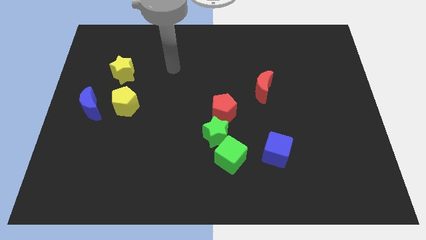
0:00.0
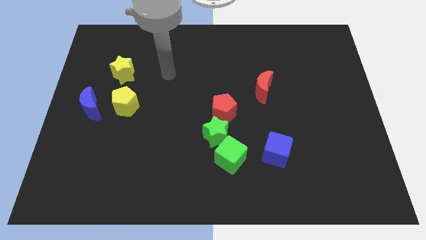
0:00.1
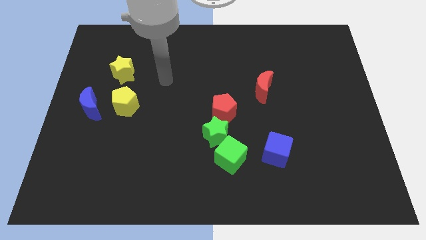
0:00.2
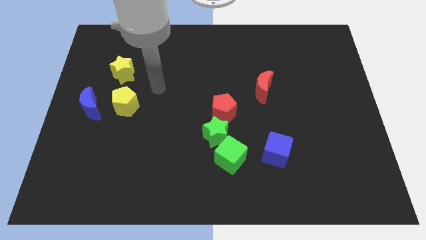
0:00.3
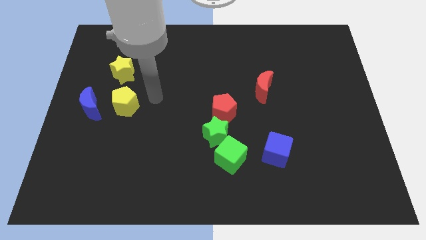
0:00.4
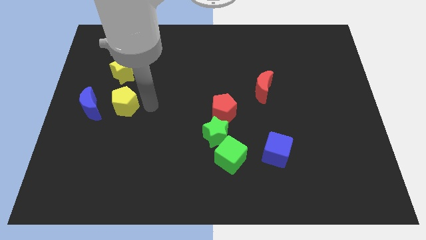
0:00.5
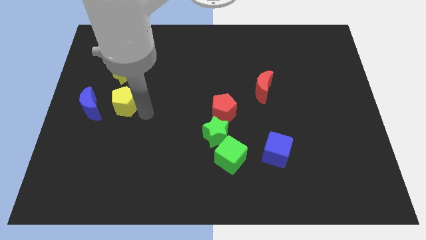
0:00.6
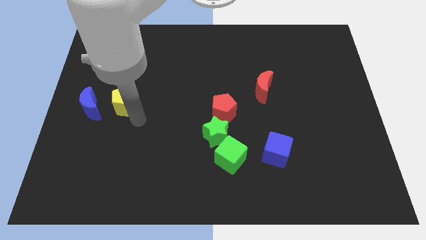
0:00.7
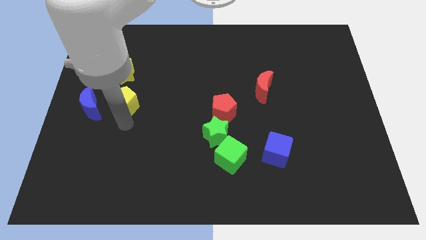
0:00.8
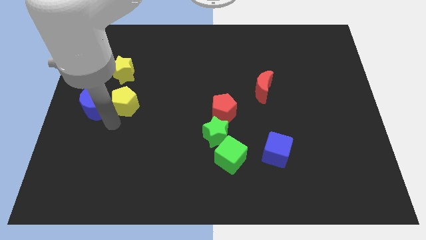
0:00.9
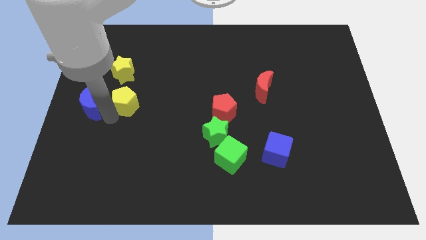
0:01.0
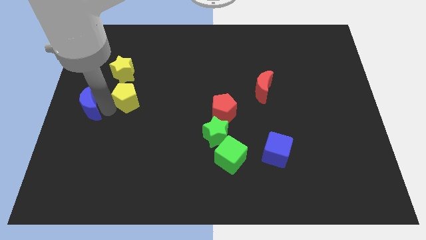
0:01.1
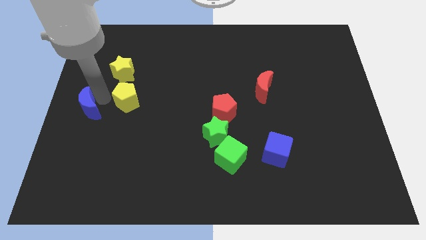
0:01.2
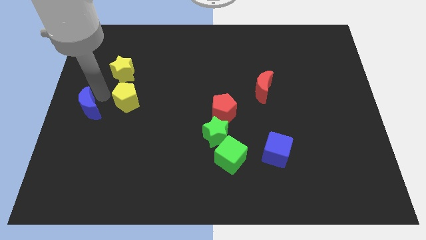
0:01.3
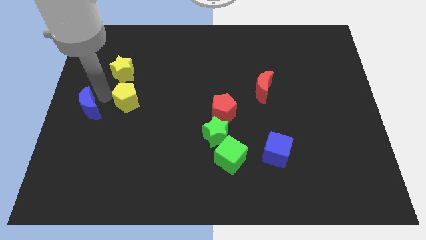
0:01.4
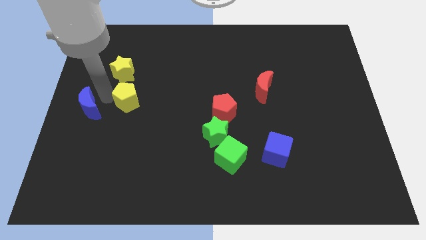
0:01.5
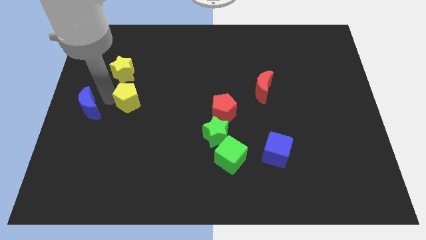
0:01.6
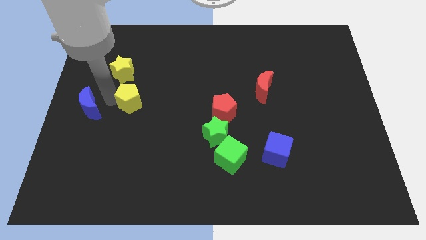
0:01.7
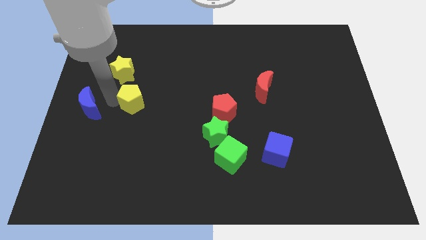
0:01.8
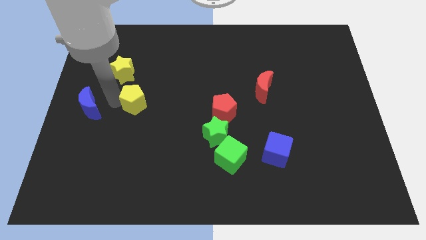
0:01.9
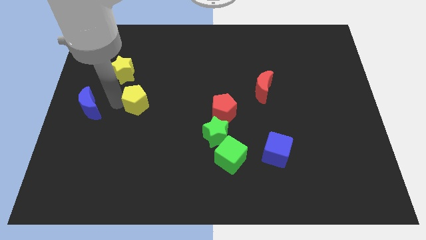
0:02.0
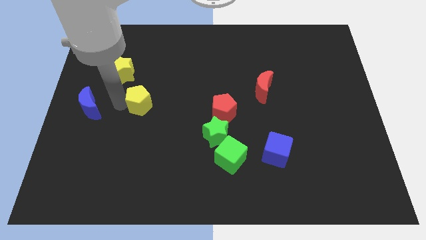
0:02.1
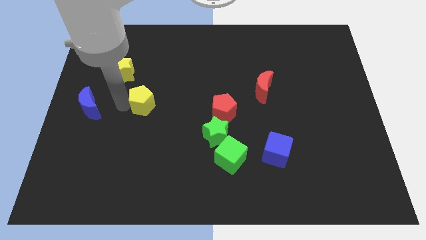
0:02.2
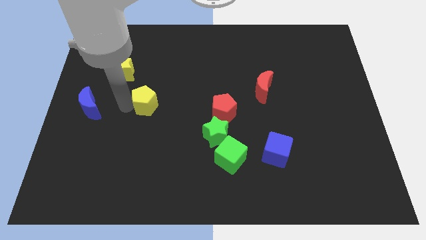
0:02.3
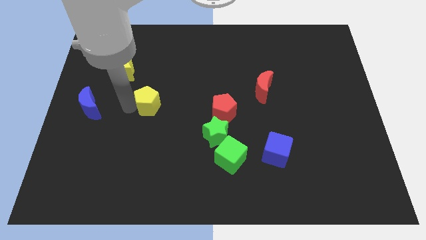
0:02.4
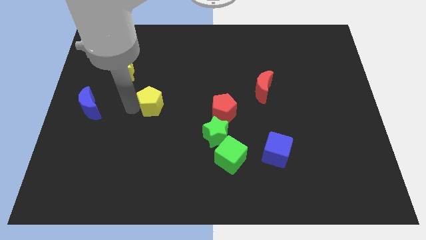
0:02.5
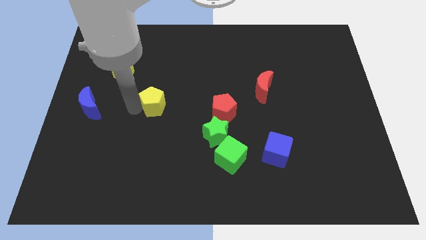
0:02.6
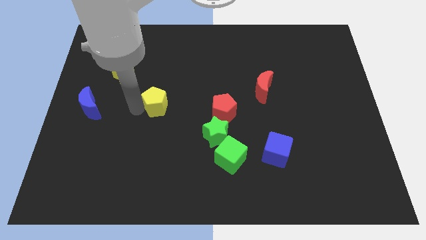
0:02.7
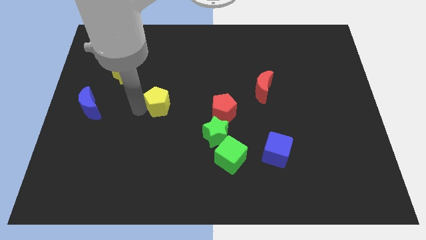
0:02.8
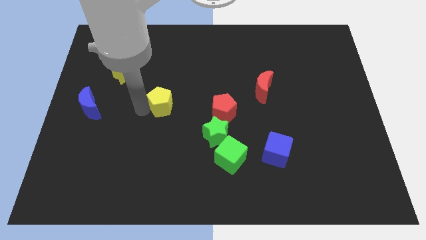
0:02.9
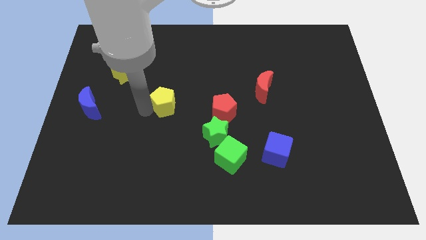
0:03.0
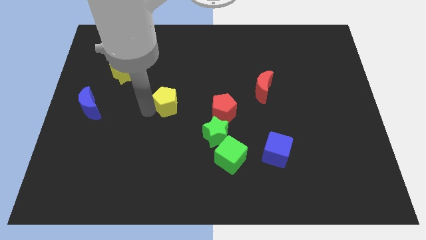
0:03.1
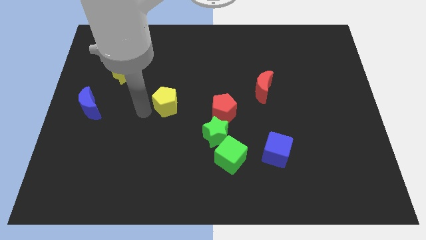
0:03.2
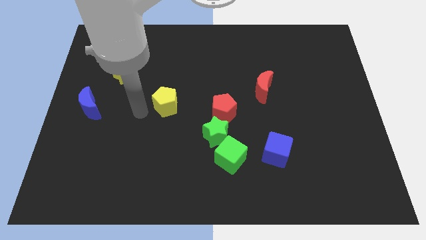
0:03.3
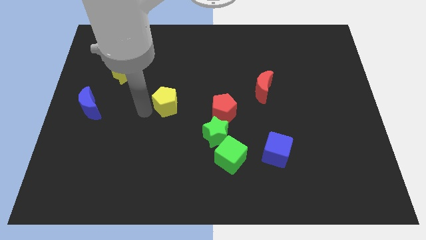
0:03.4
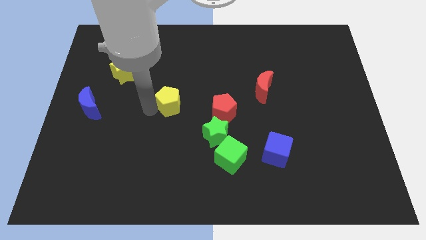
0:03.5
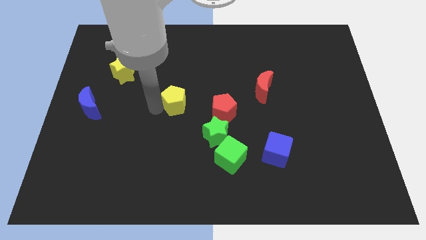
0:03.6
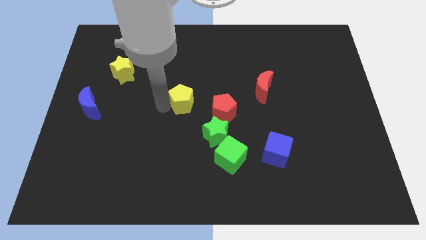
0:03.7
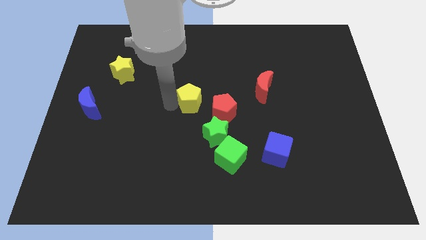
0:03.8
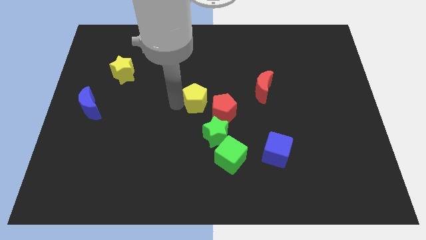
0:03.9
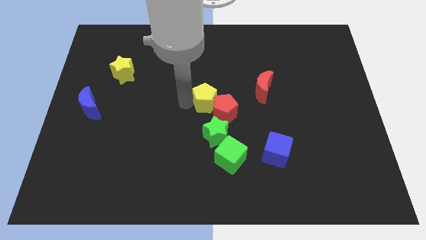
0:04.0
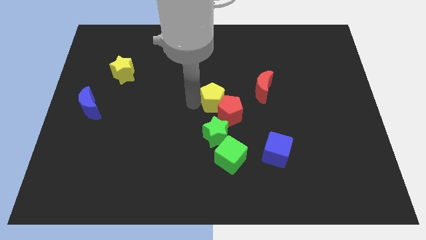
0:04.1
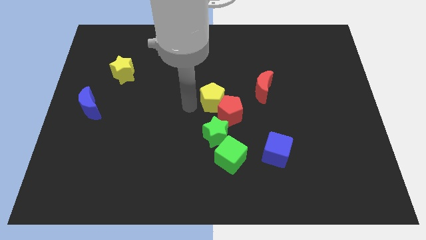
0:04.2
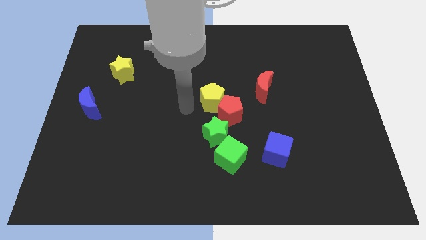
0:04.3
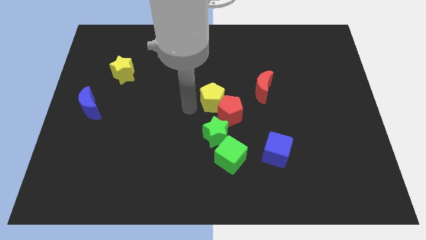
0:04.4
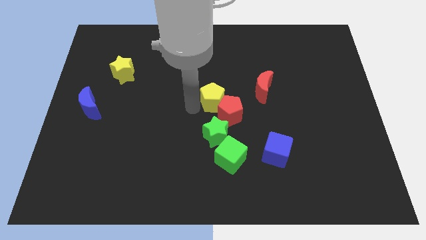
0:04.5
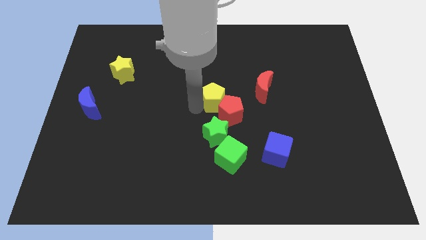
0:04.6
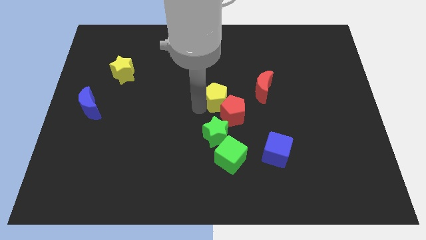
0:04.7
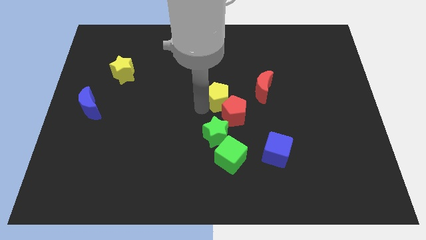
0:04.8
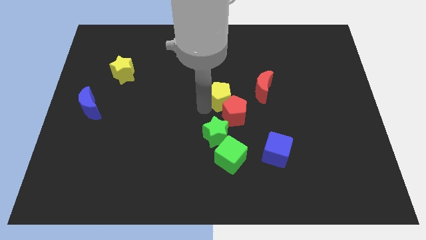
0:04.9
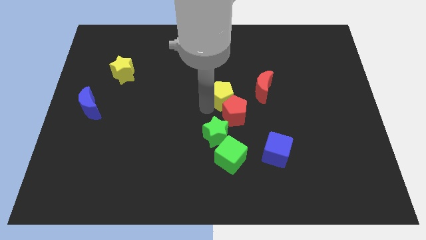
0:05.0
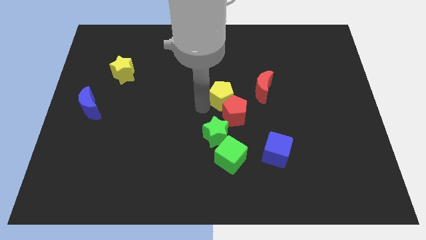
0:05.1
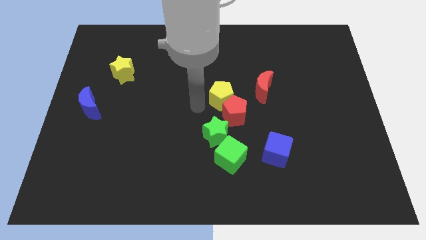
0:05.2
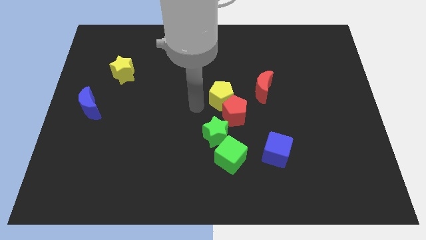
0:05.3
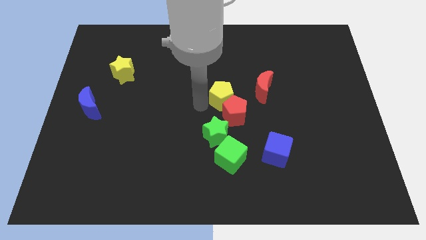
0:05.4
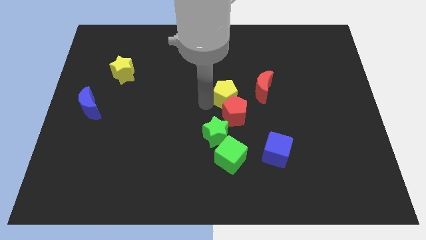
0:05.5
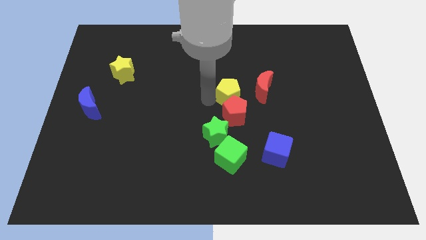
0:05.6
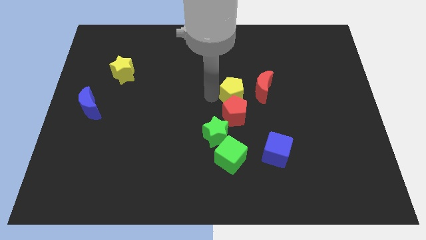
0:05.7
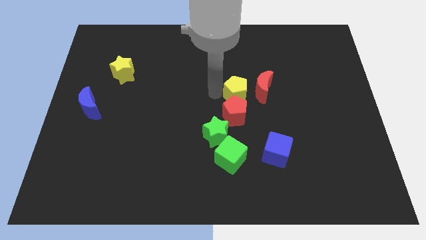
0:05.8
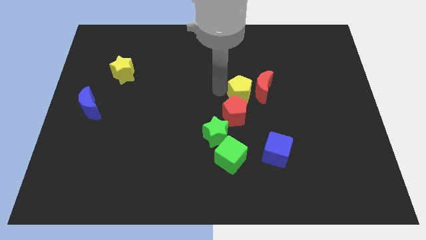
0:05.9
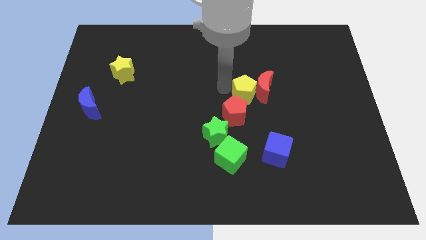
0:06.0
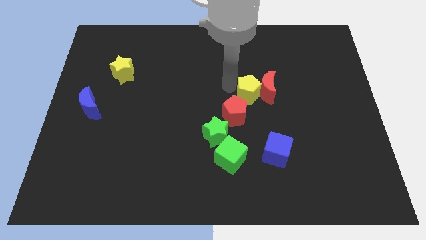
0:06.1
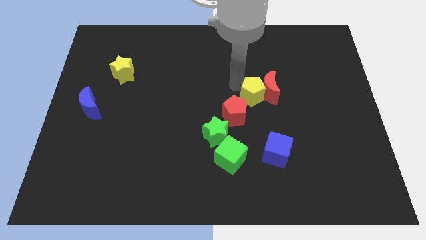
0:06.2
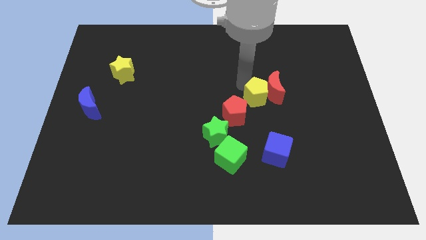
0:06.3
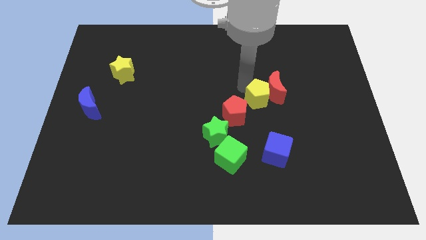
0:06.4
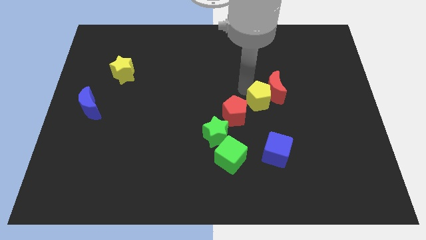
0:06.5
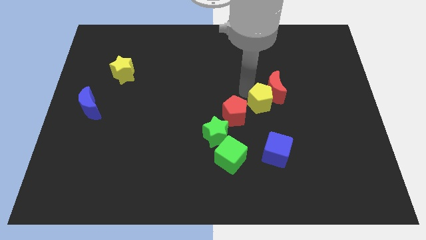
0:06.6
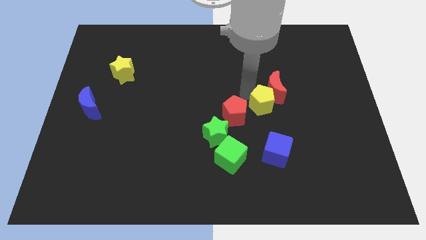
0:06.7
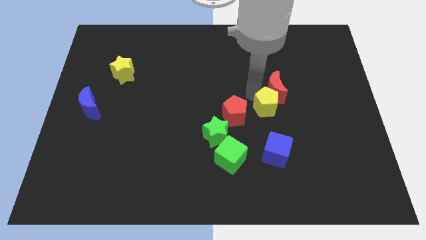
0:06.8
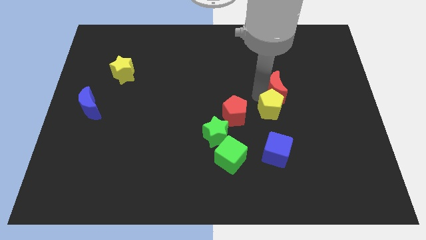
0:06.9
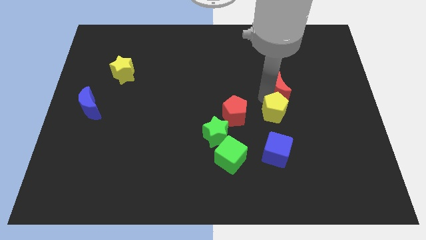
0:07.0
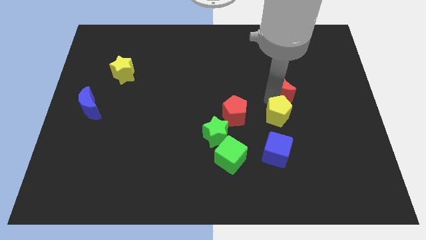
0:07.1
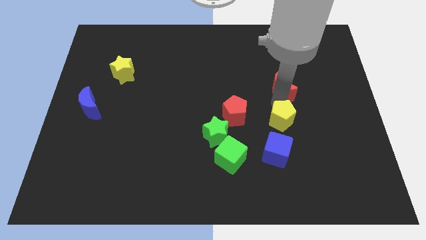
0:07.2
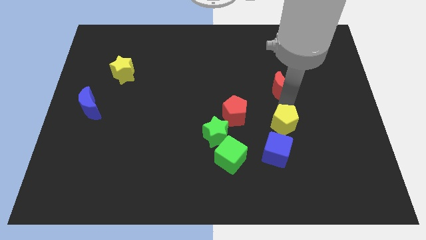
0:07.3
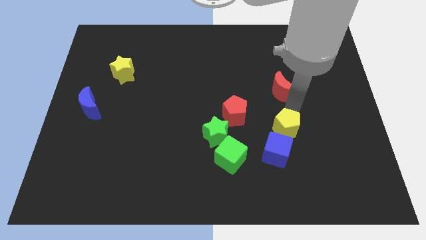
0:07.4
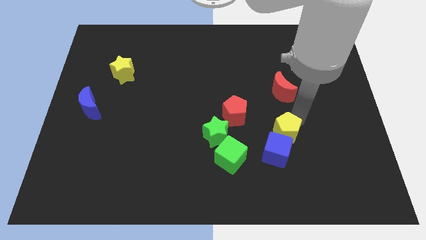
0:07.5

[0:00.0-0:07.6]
push the yellow pentagon next to the blue cube

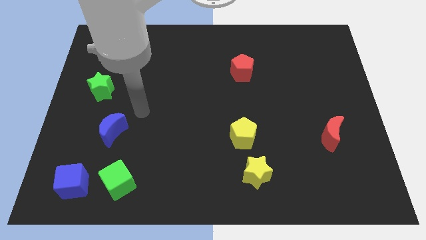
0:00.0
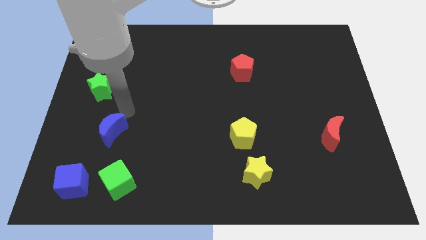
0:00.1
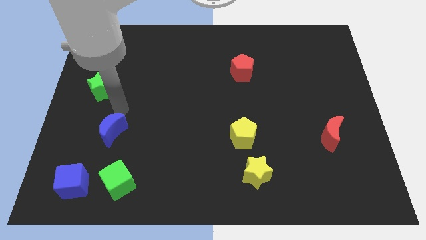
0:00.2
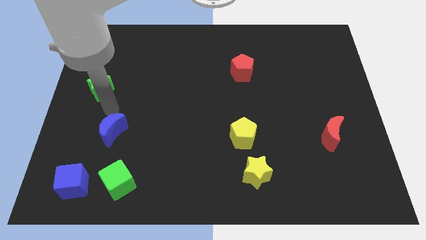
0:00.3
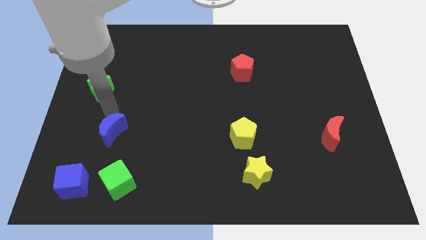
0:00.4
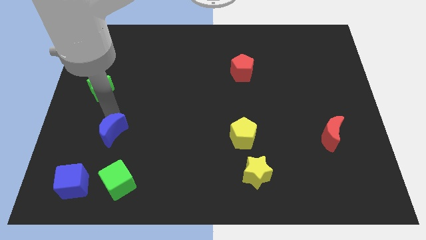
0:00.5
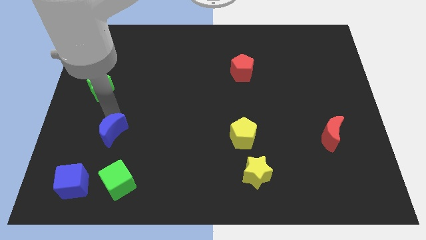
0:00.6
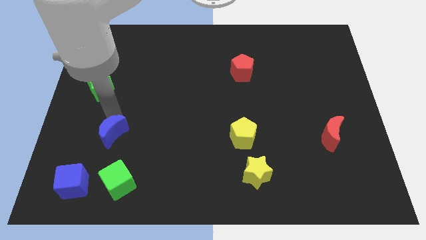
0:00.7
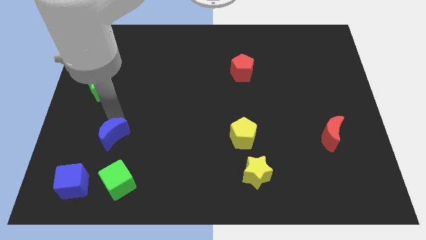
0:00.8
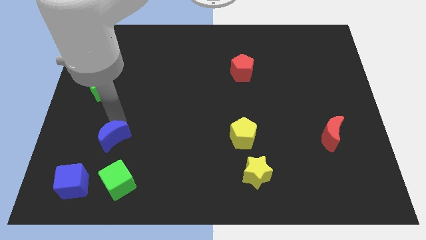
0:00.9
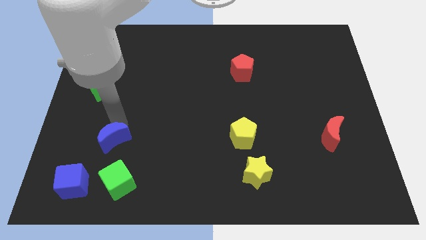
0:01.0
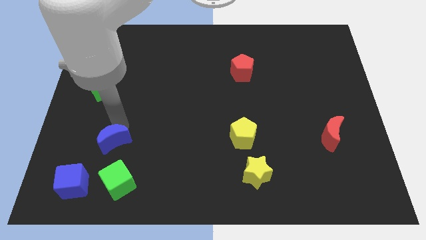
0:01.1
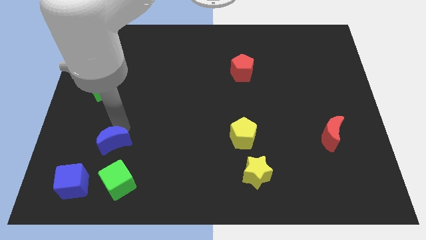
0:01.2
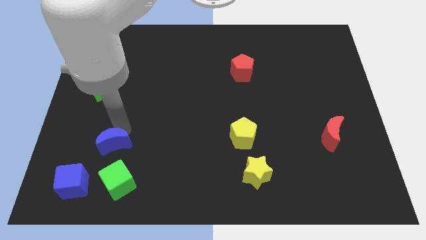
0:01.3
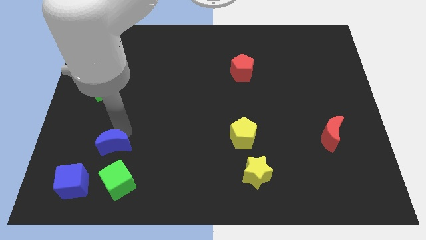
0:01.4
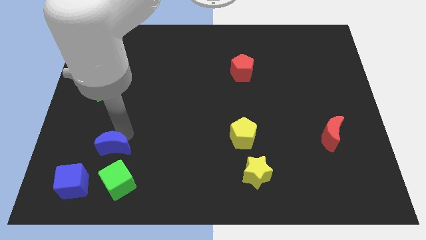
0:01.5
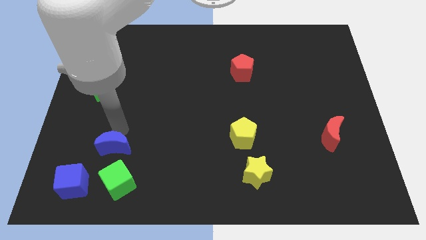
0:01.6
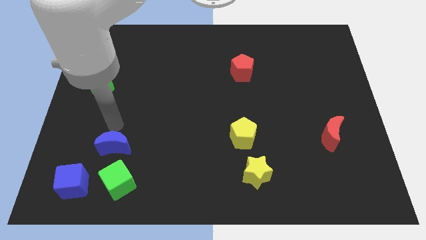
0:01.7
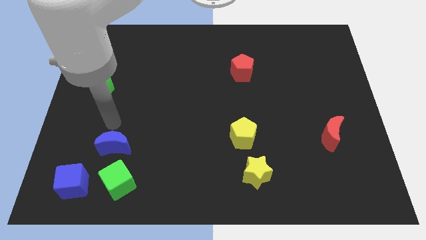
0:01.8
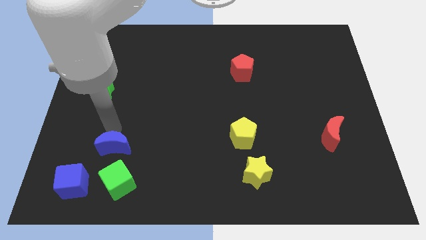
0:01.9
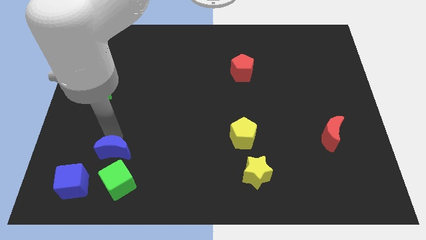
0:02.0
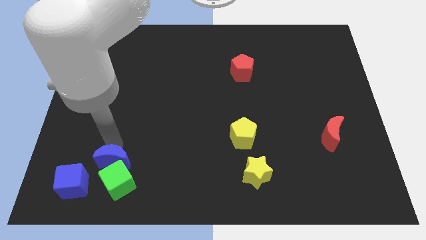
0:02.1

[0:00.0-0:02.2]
slide the blue moon next to the green cube
